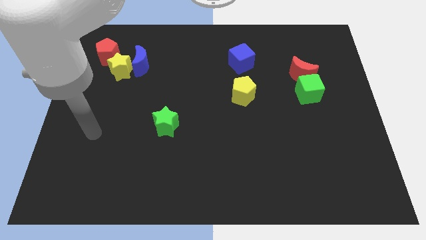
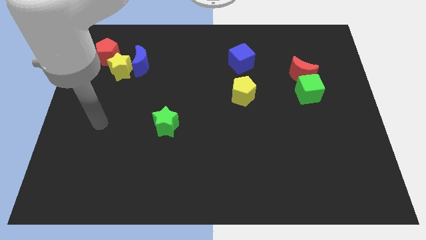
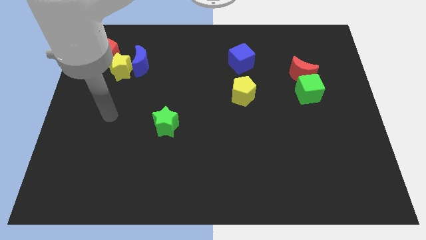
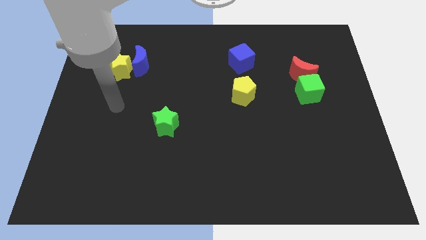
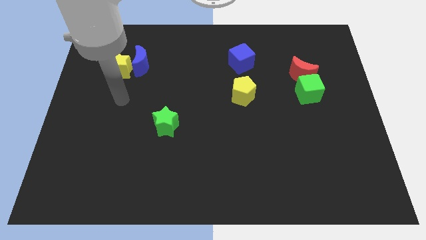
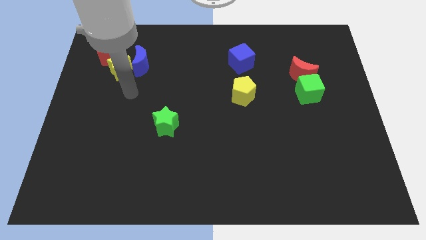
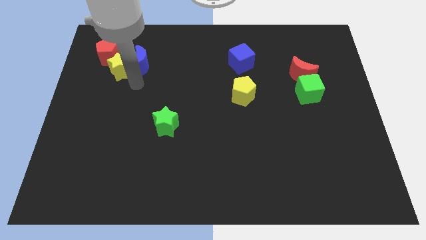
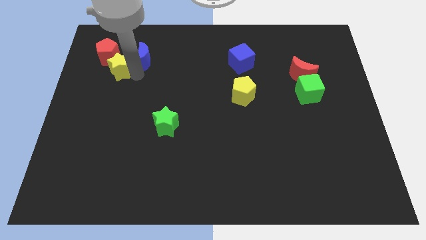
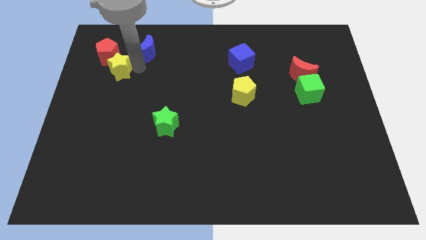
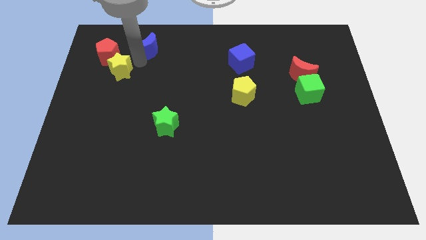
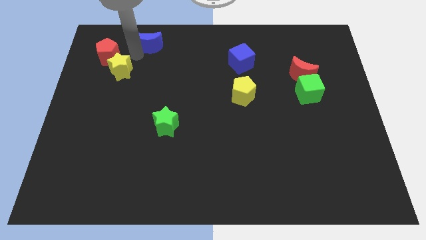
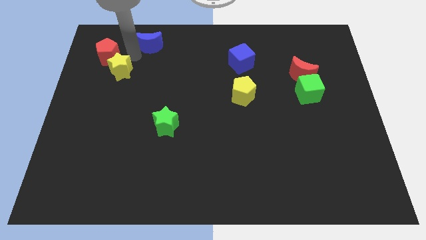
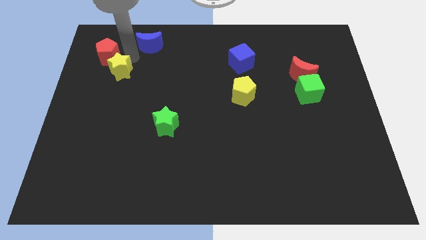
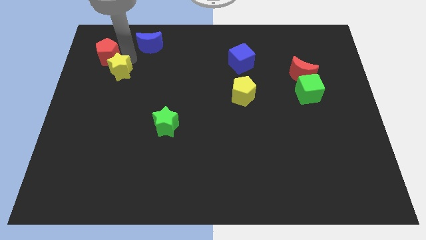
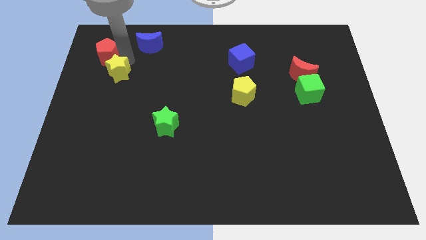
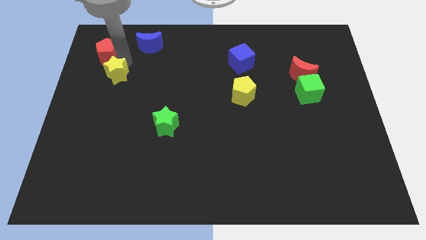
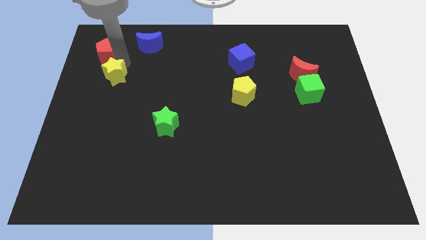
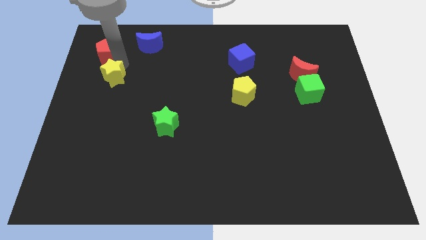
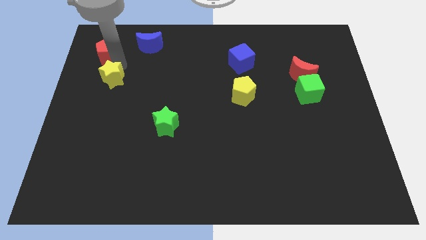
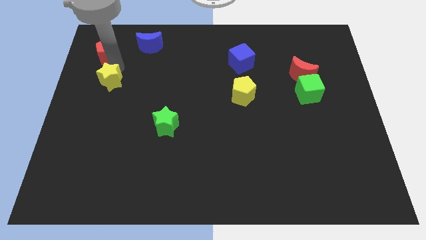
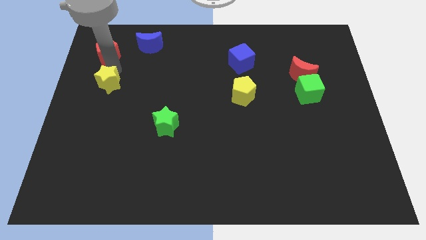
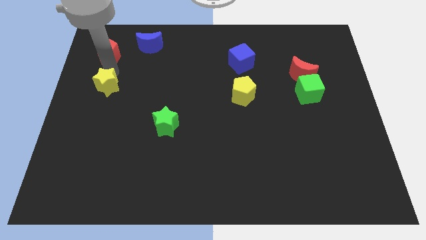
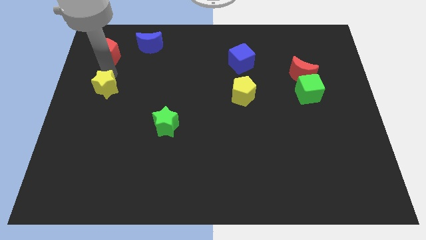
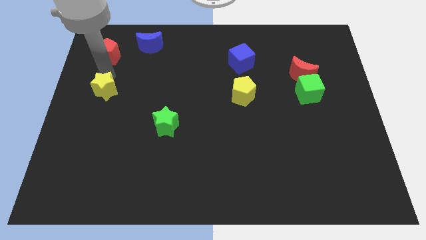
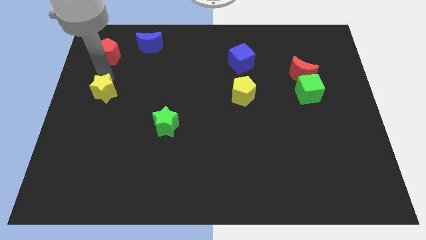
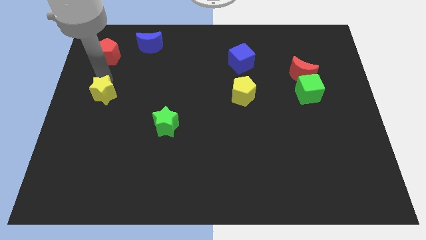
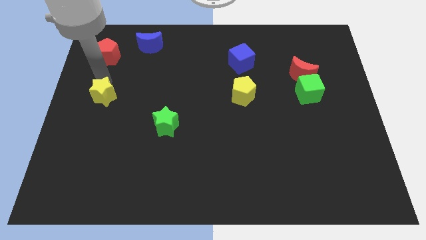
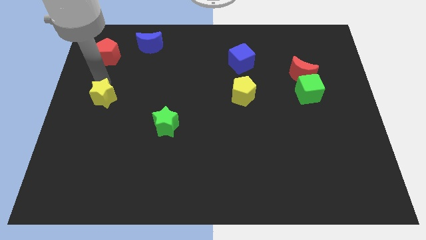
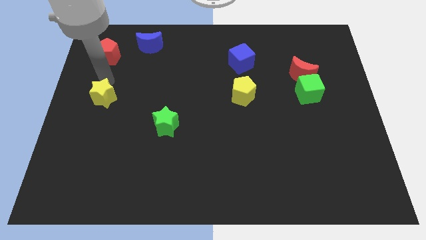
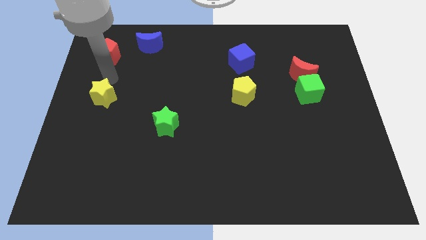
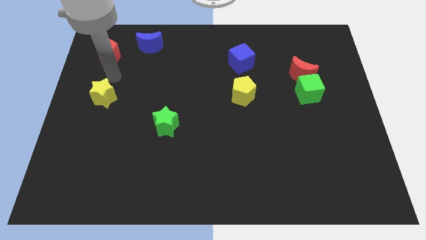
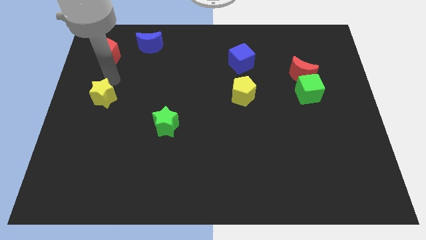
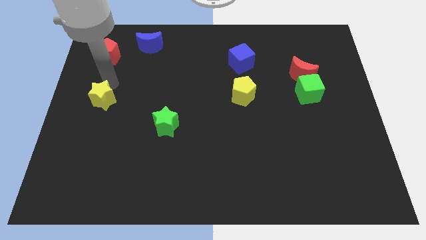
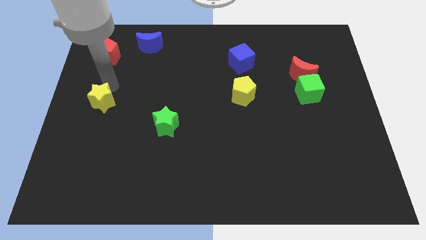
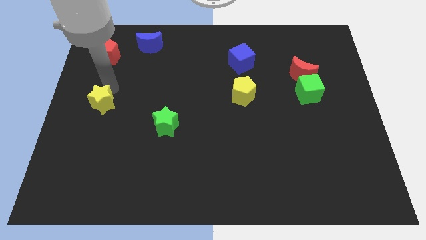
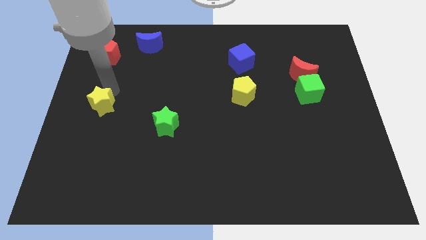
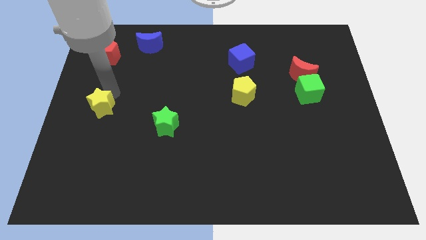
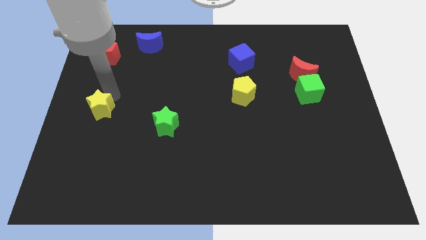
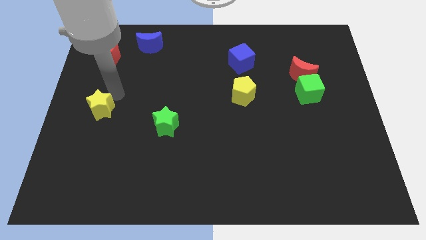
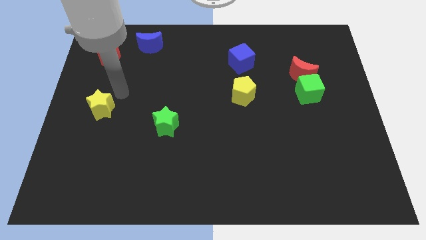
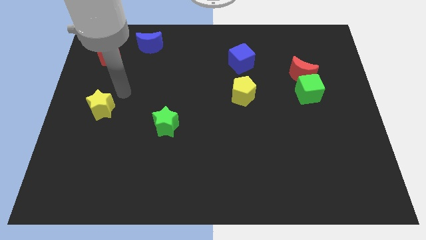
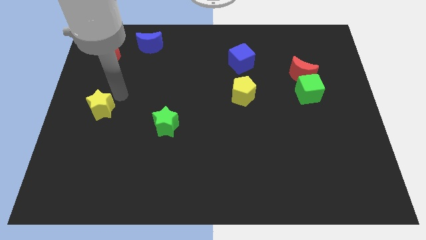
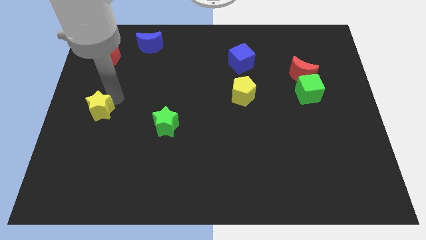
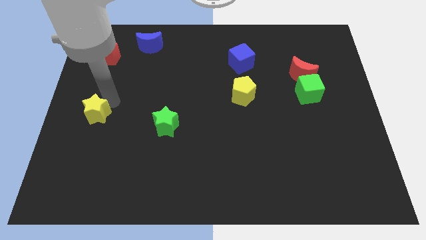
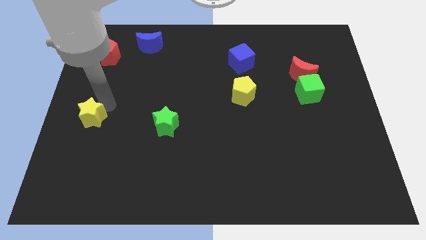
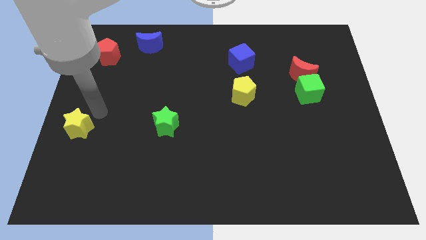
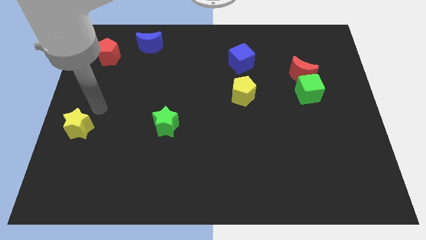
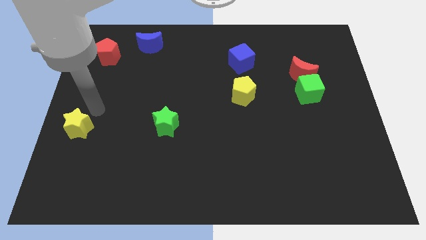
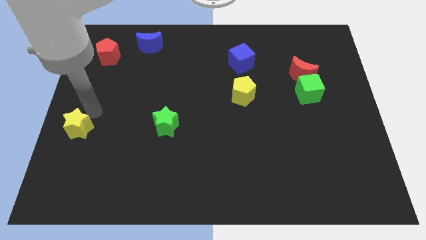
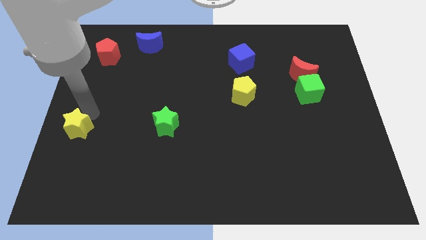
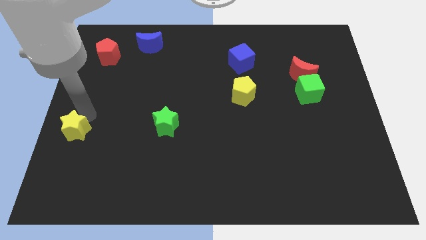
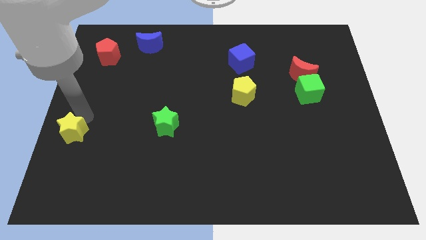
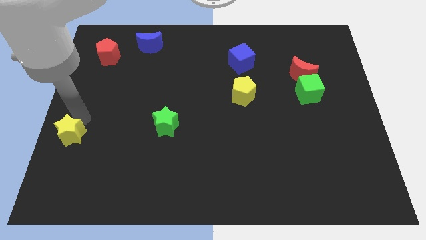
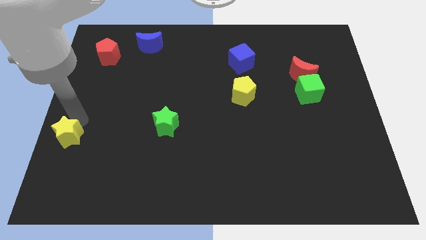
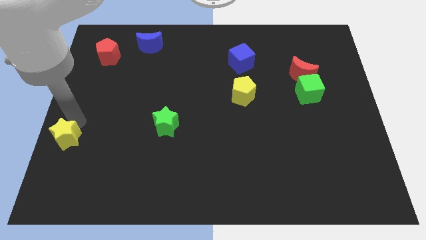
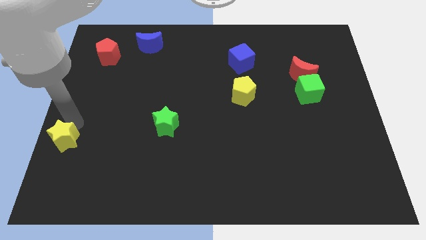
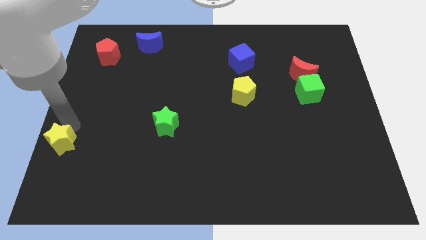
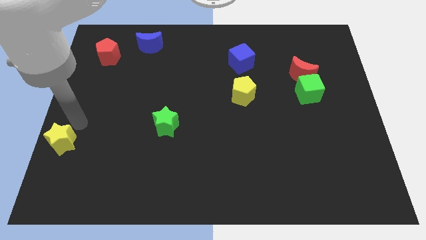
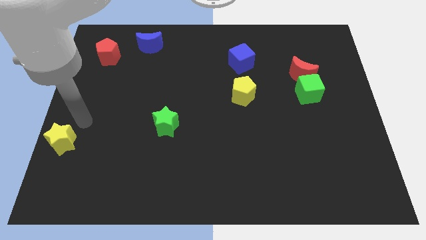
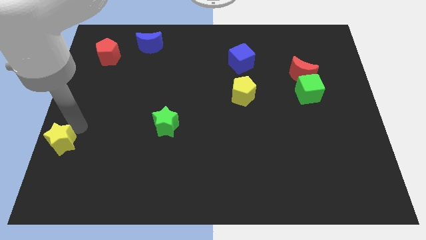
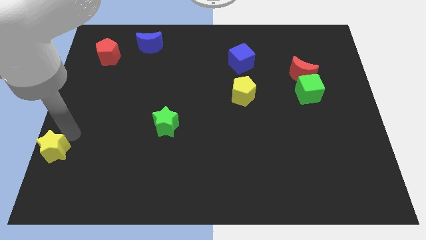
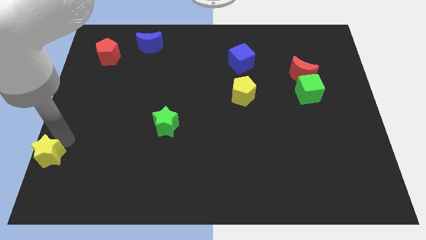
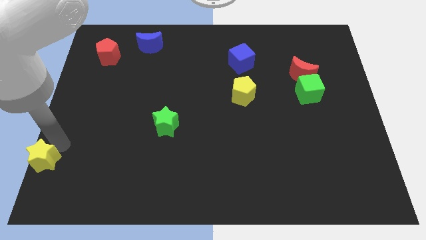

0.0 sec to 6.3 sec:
slide the yellow star to the bottom left corner

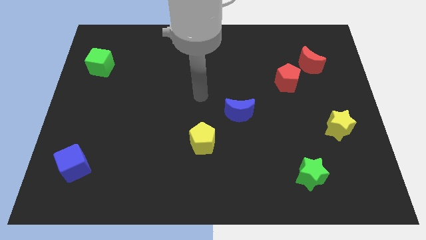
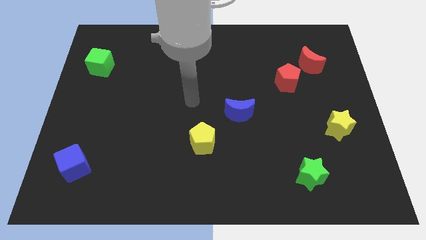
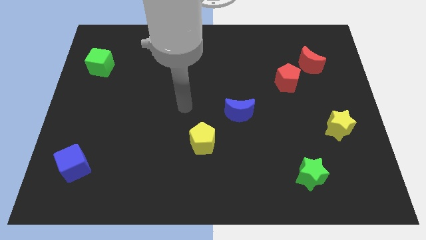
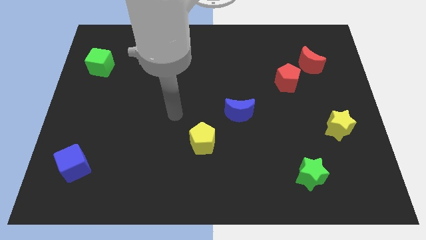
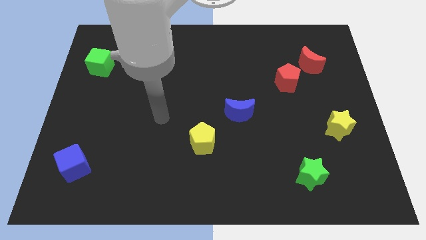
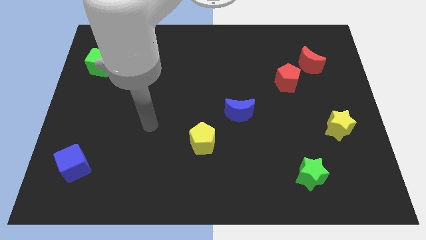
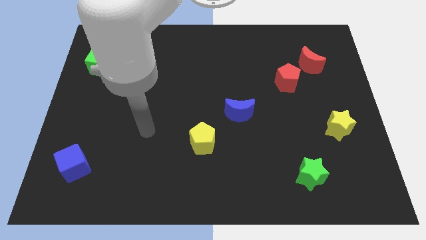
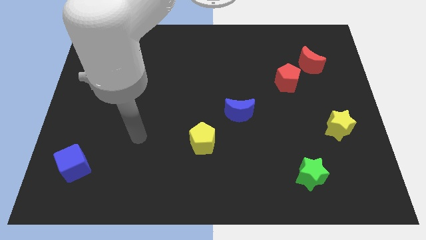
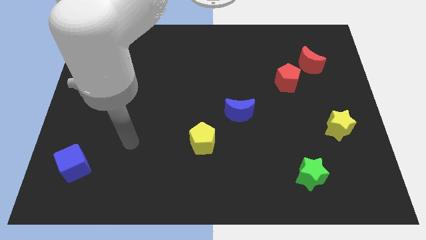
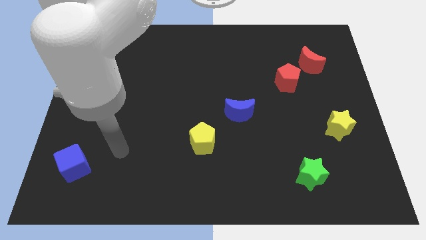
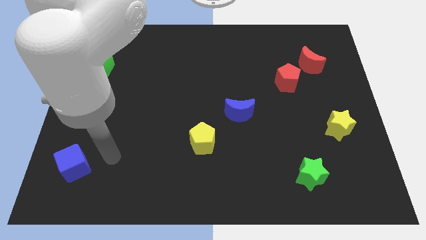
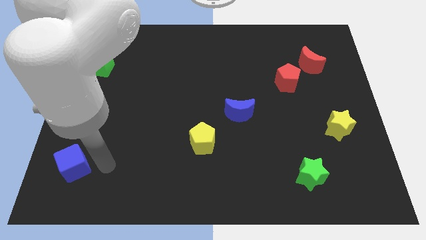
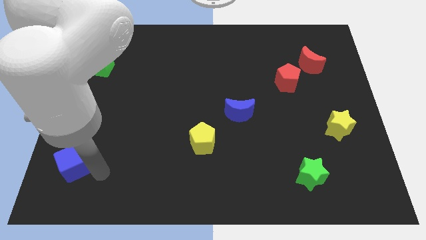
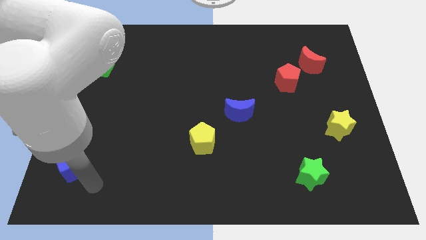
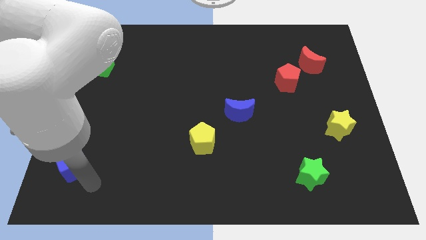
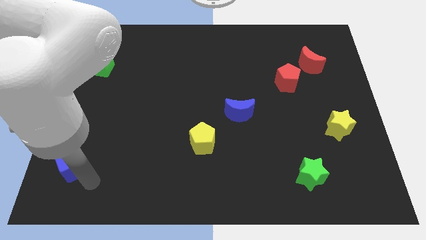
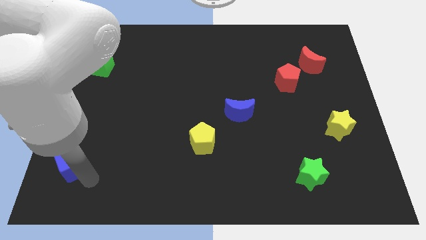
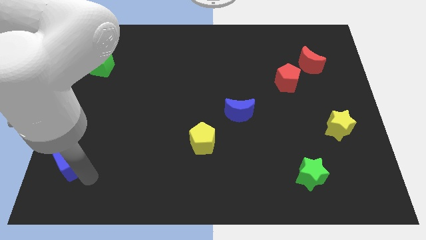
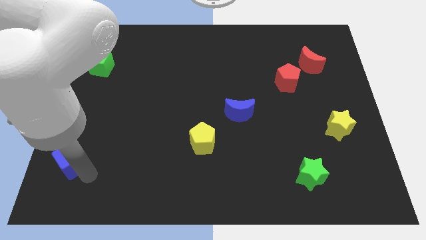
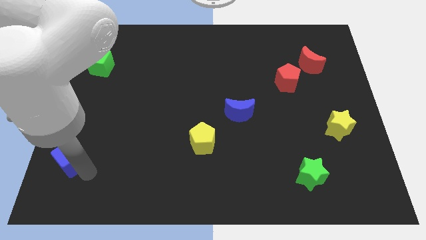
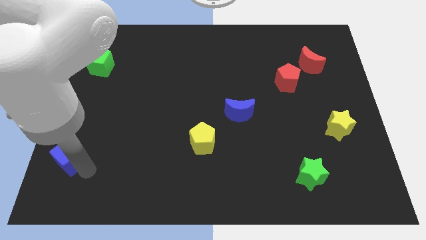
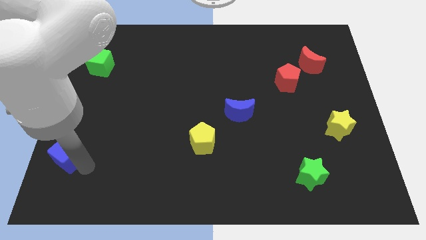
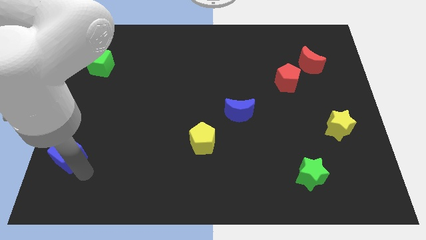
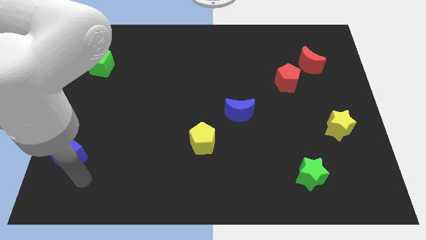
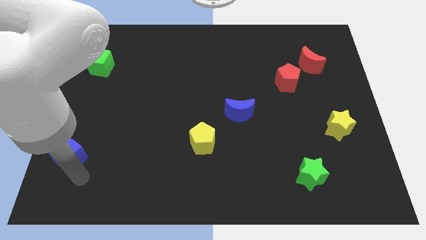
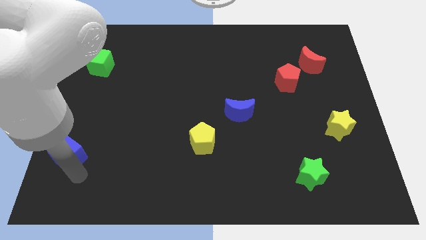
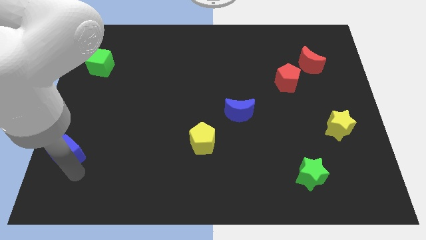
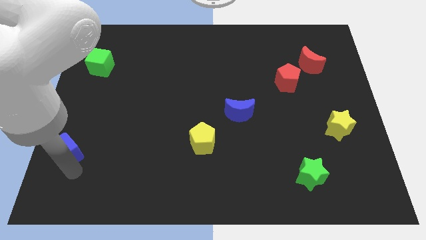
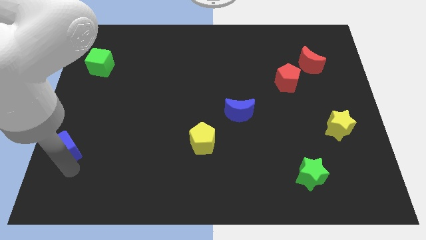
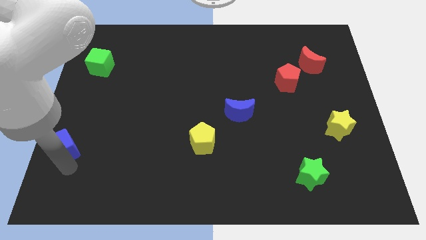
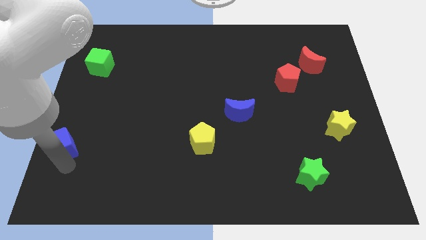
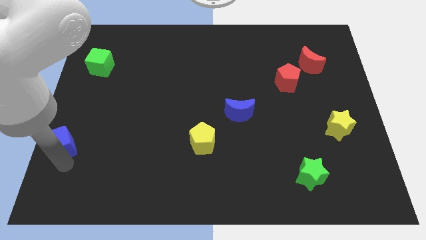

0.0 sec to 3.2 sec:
move the blue cube to the left side of the board
